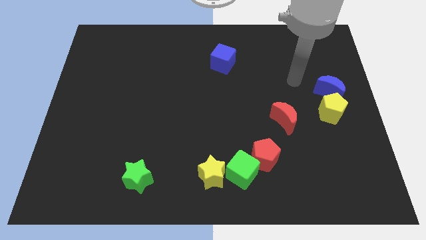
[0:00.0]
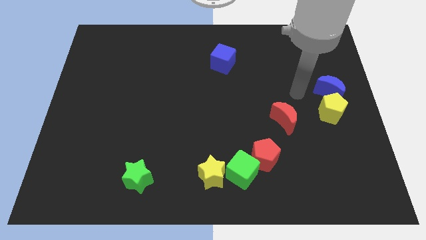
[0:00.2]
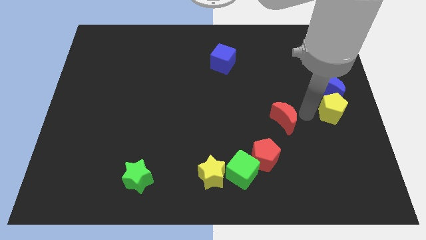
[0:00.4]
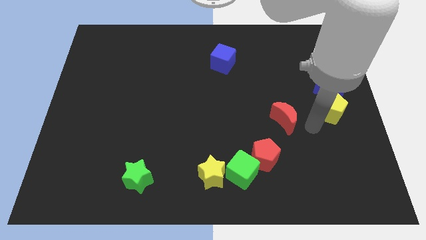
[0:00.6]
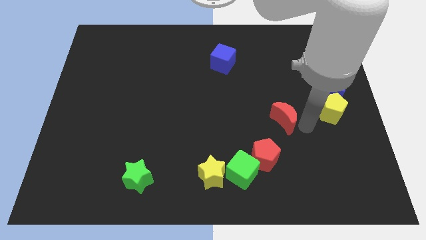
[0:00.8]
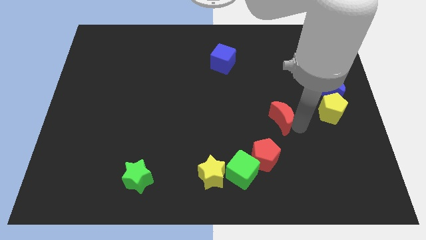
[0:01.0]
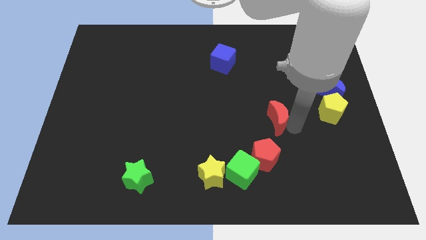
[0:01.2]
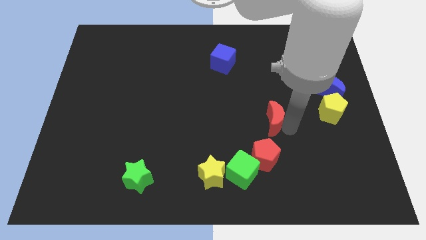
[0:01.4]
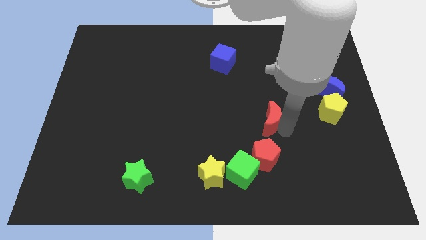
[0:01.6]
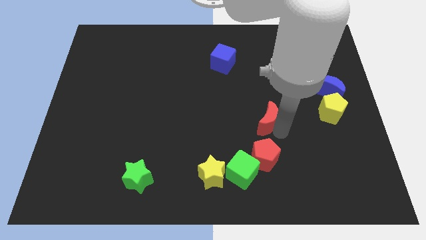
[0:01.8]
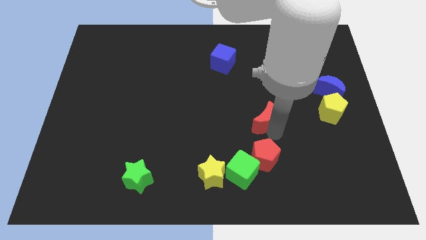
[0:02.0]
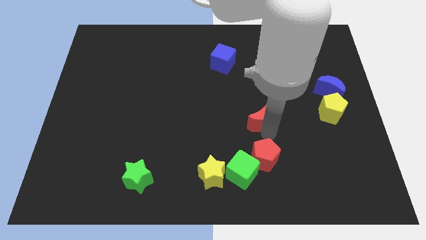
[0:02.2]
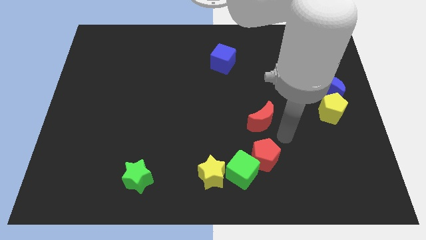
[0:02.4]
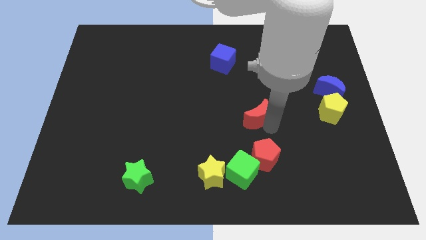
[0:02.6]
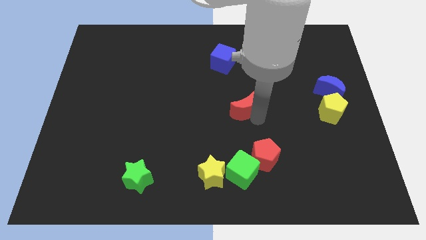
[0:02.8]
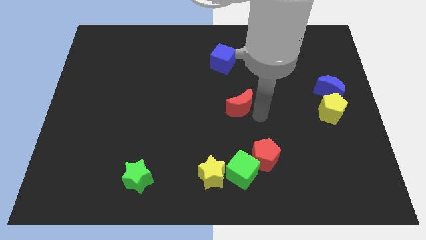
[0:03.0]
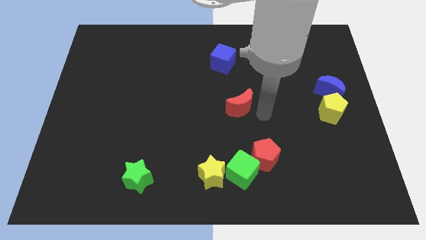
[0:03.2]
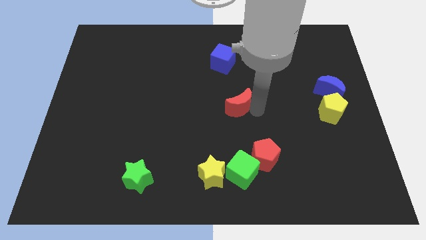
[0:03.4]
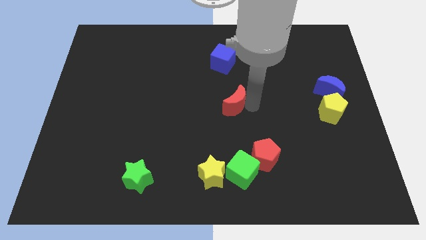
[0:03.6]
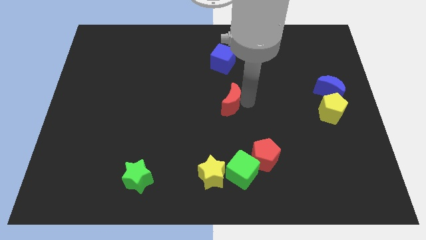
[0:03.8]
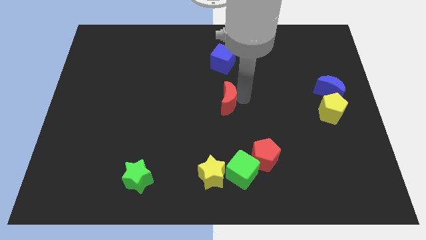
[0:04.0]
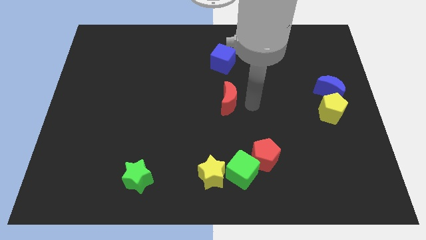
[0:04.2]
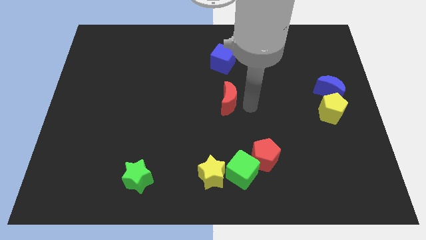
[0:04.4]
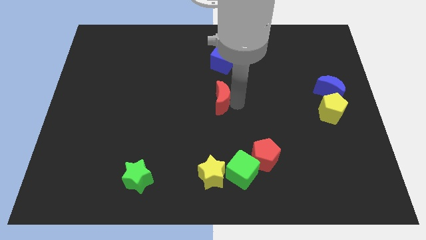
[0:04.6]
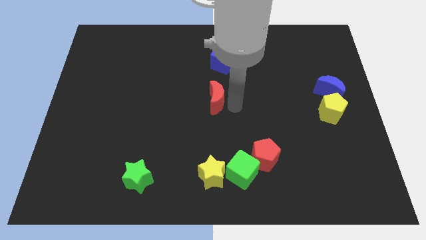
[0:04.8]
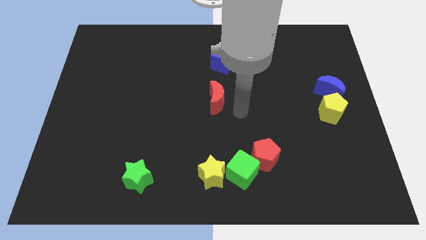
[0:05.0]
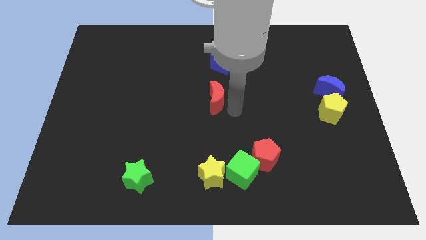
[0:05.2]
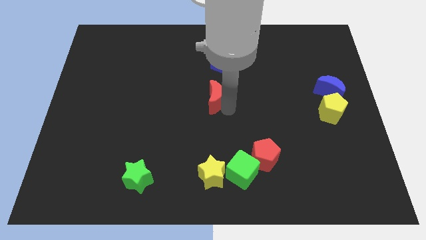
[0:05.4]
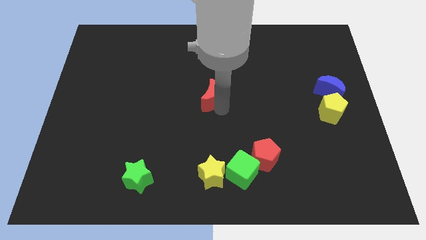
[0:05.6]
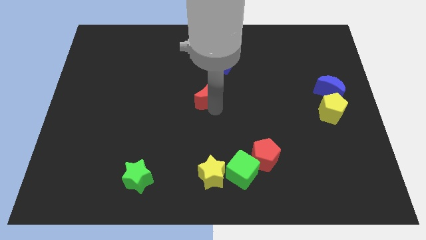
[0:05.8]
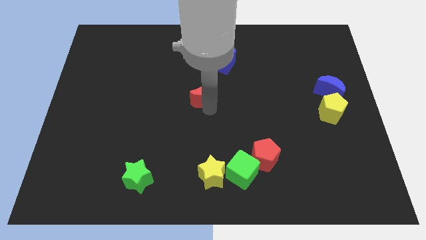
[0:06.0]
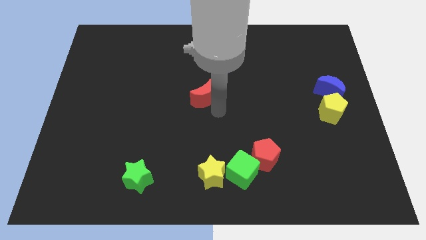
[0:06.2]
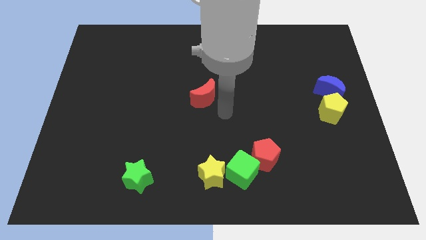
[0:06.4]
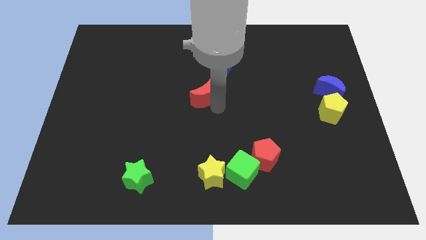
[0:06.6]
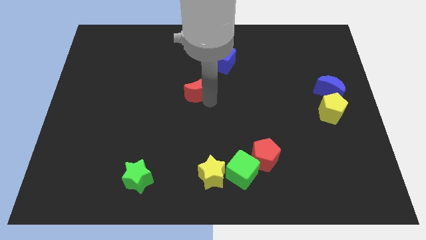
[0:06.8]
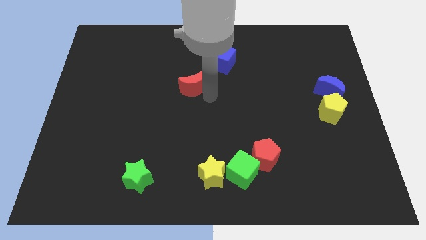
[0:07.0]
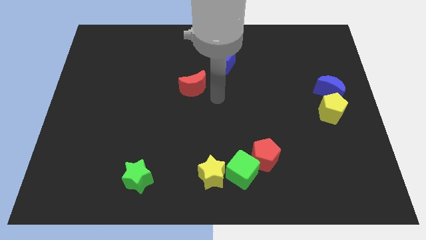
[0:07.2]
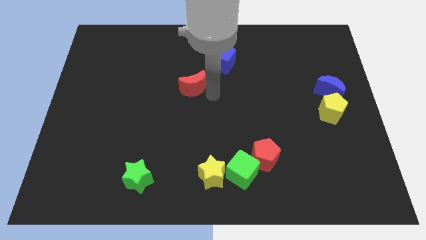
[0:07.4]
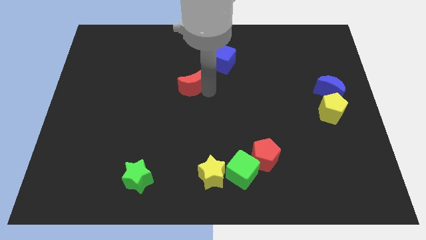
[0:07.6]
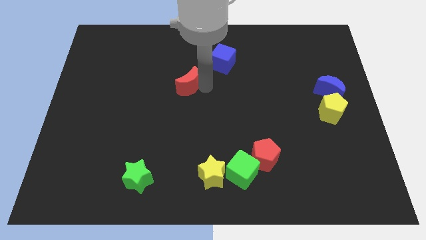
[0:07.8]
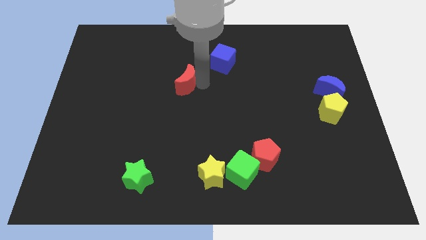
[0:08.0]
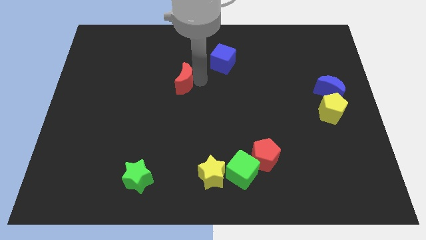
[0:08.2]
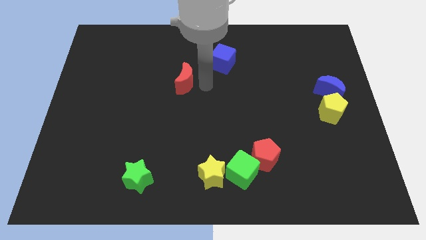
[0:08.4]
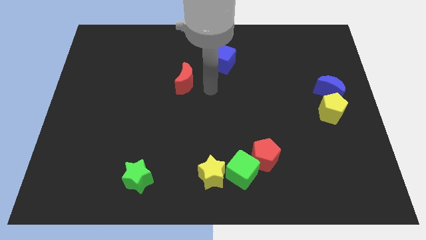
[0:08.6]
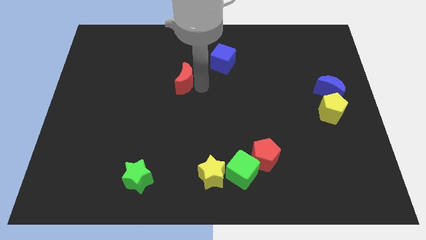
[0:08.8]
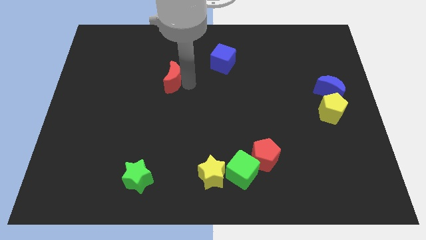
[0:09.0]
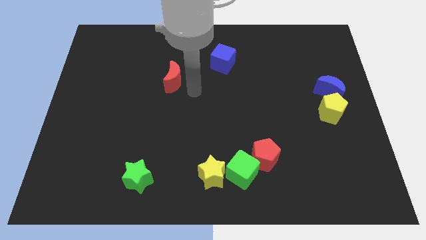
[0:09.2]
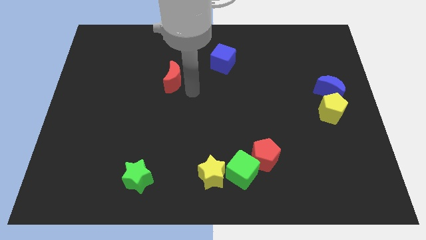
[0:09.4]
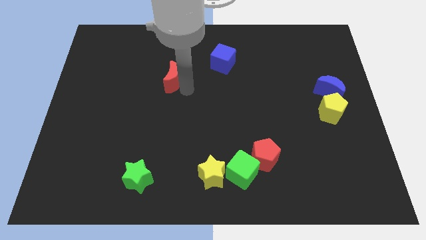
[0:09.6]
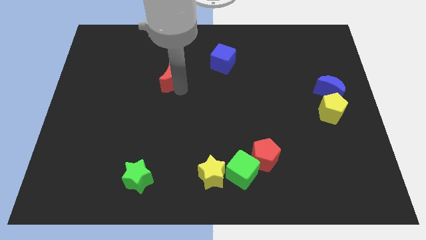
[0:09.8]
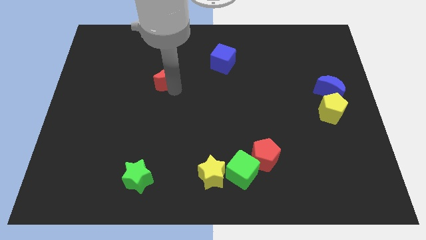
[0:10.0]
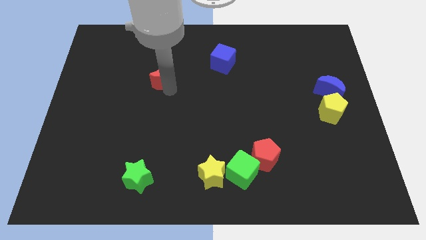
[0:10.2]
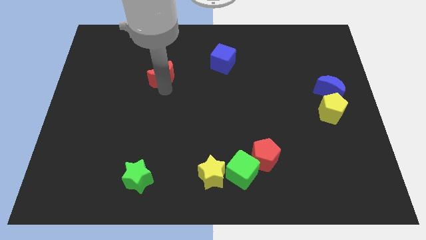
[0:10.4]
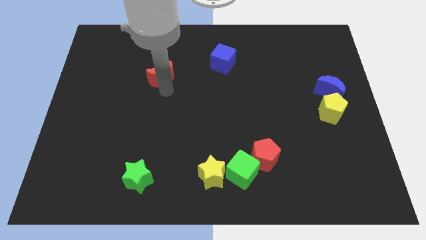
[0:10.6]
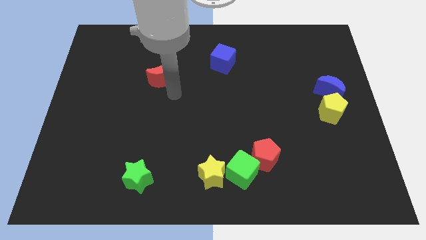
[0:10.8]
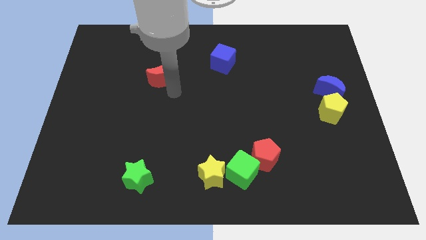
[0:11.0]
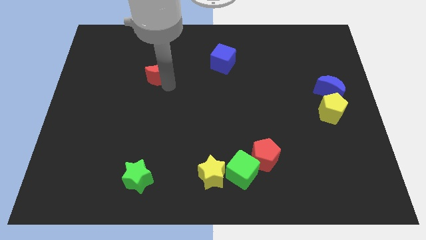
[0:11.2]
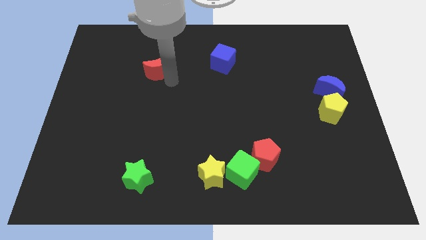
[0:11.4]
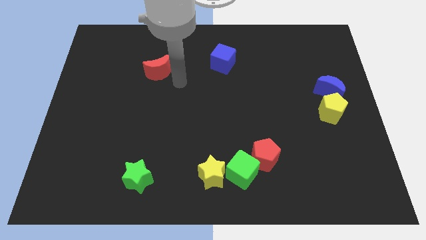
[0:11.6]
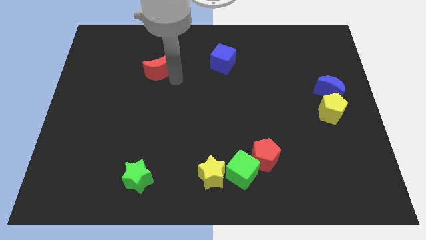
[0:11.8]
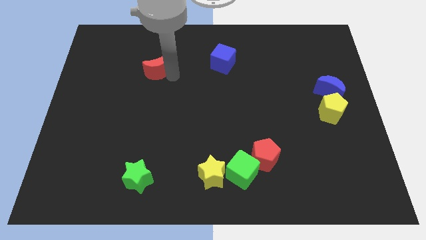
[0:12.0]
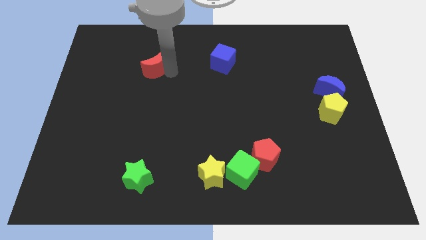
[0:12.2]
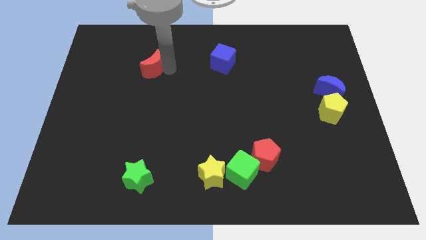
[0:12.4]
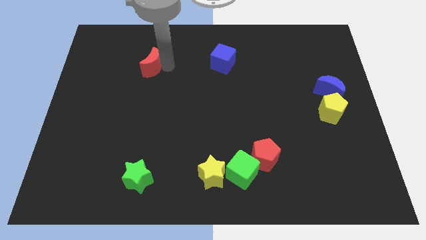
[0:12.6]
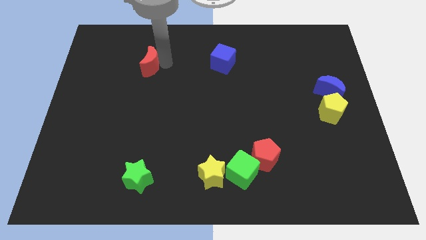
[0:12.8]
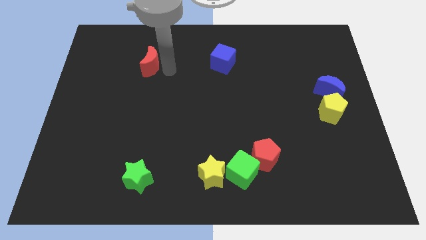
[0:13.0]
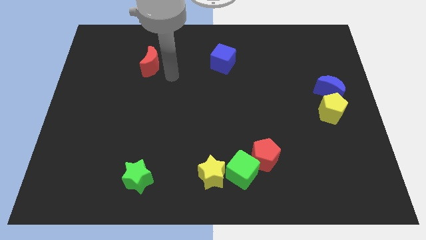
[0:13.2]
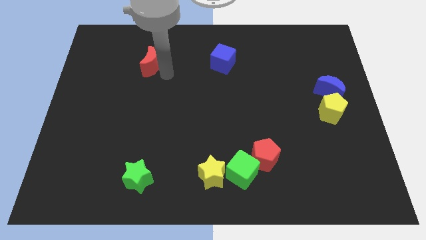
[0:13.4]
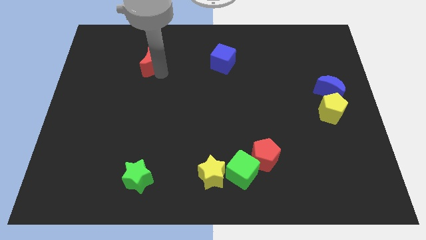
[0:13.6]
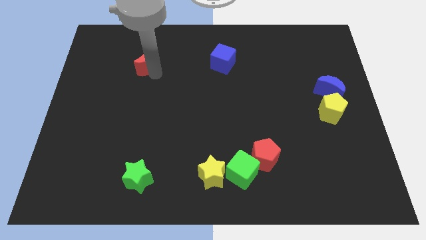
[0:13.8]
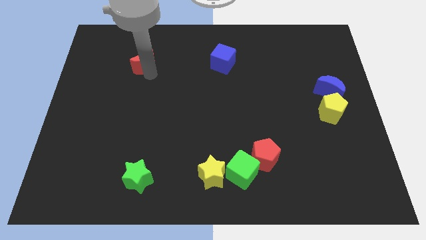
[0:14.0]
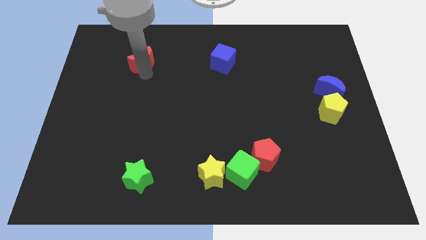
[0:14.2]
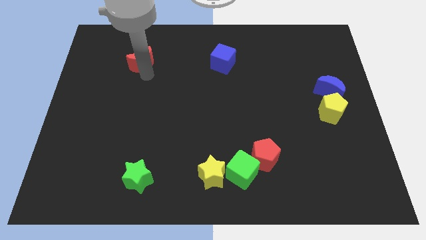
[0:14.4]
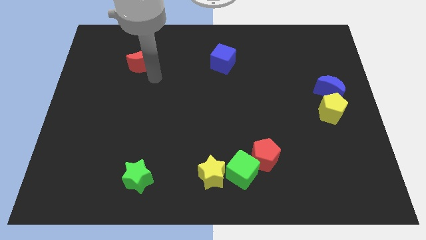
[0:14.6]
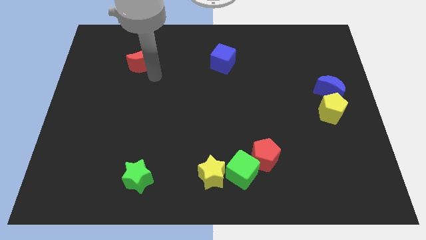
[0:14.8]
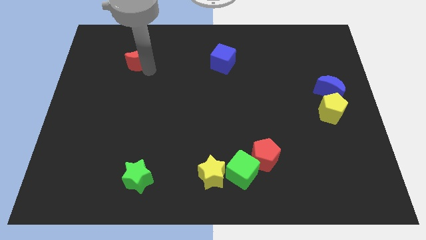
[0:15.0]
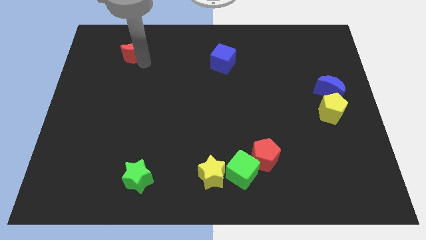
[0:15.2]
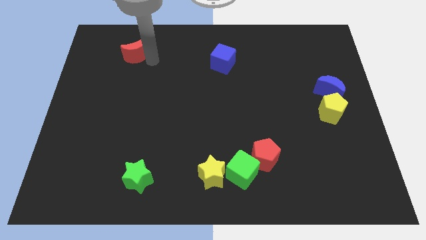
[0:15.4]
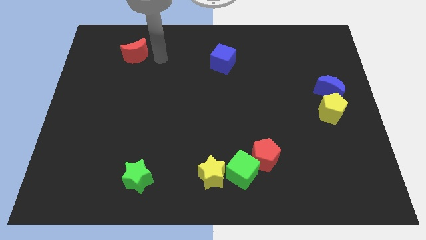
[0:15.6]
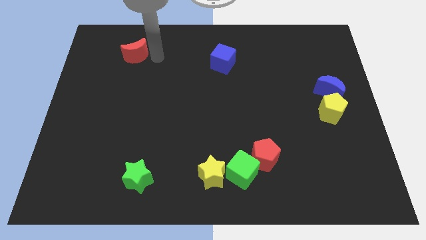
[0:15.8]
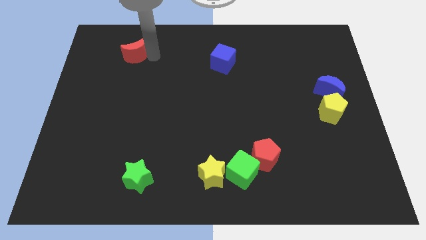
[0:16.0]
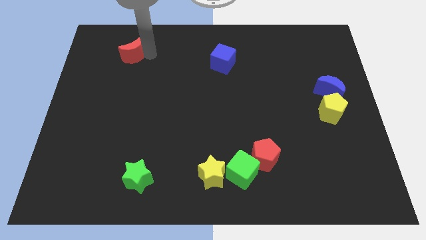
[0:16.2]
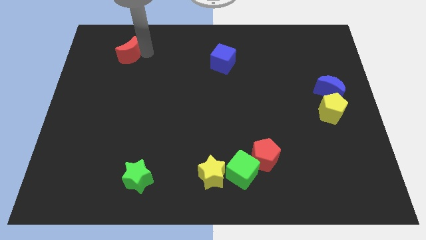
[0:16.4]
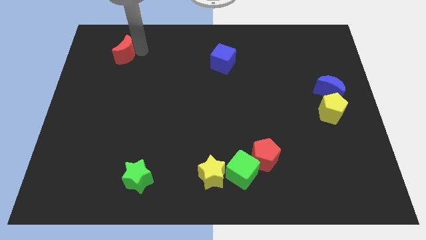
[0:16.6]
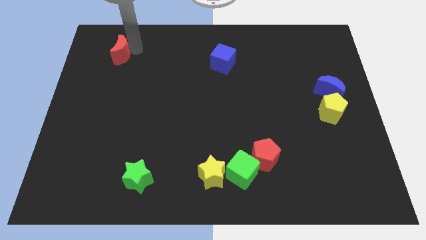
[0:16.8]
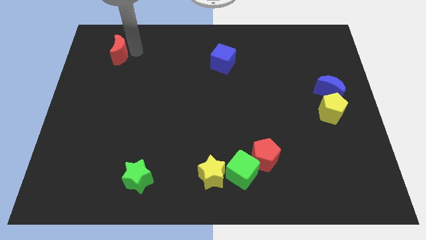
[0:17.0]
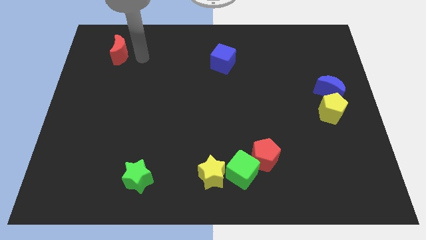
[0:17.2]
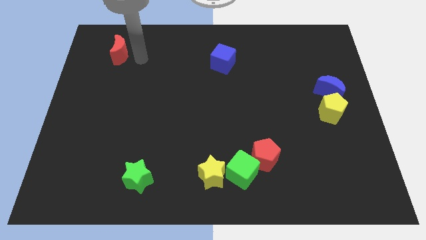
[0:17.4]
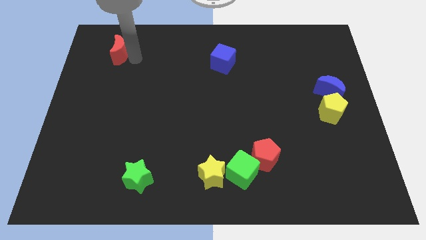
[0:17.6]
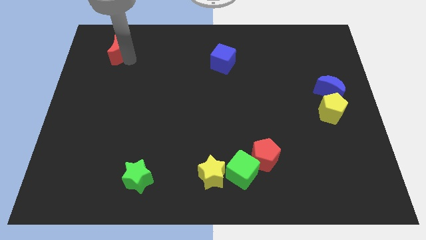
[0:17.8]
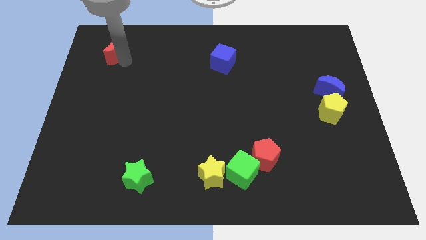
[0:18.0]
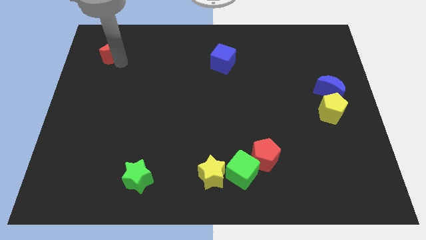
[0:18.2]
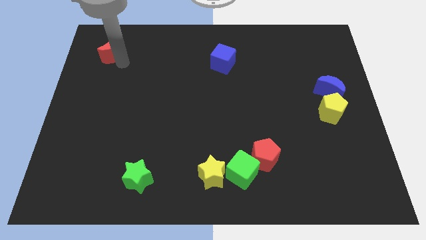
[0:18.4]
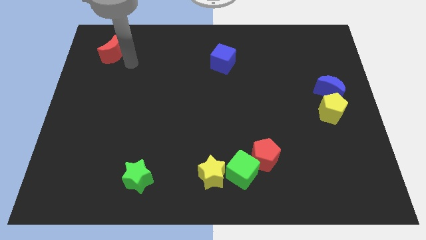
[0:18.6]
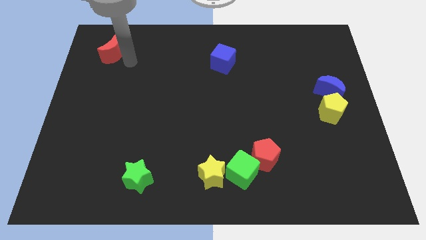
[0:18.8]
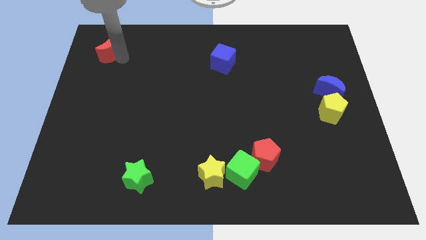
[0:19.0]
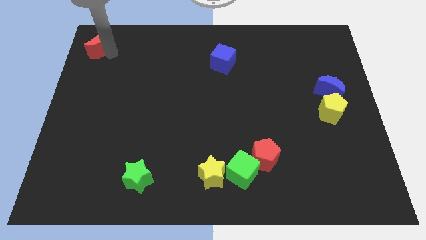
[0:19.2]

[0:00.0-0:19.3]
slide the red moon to the top left corner
